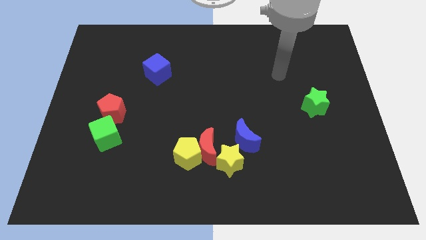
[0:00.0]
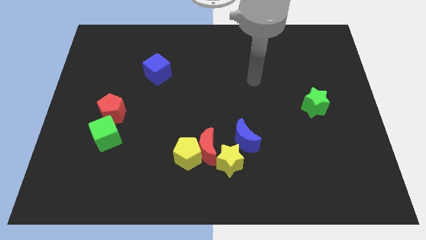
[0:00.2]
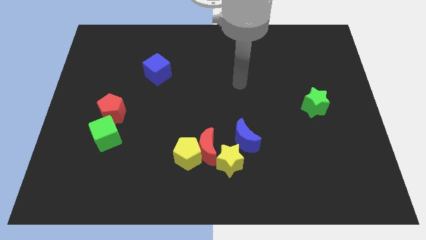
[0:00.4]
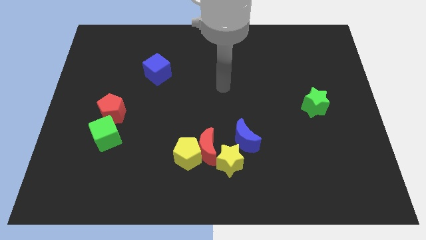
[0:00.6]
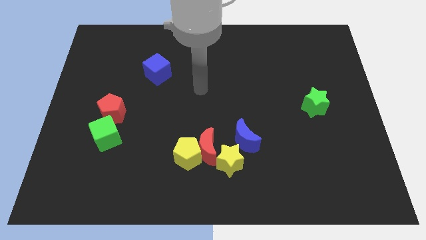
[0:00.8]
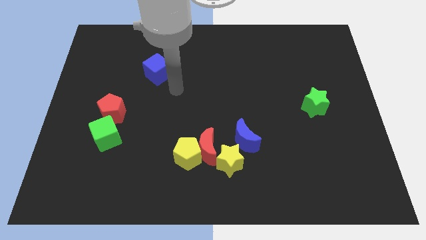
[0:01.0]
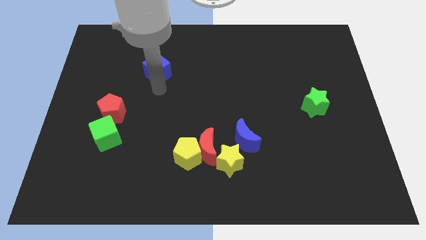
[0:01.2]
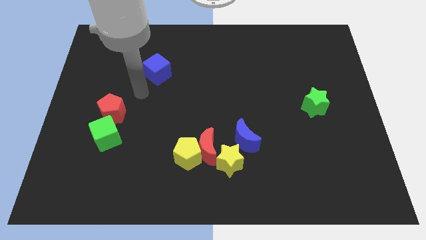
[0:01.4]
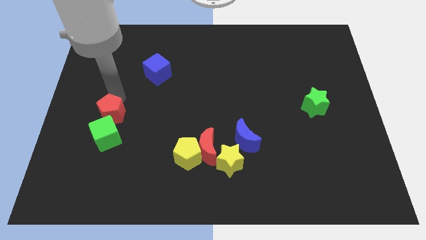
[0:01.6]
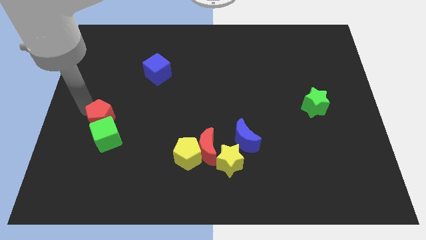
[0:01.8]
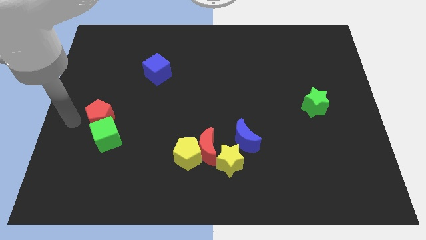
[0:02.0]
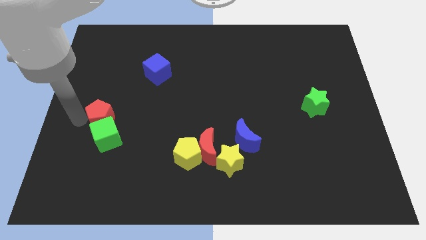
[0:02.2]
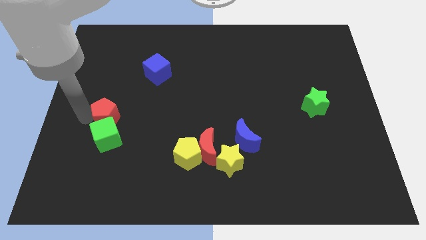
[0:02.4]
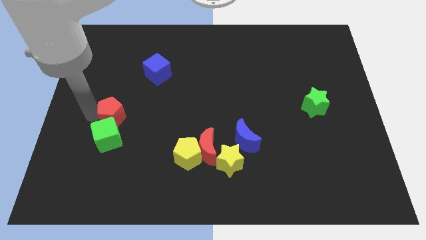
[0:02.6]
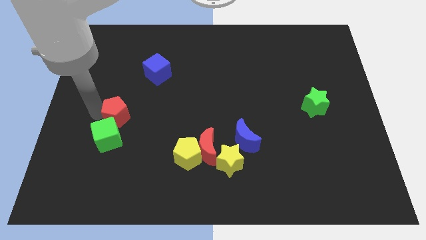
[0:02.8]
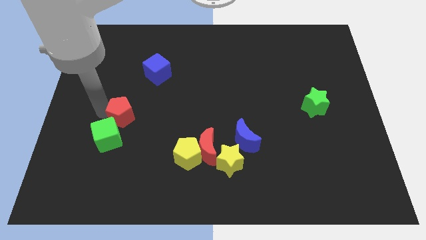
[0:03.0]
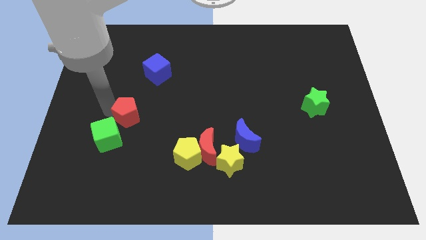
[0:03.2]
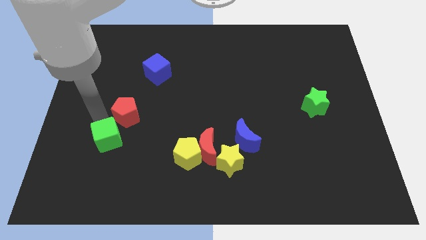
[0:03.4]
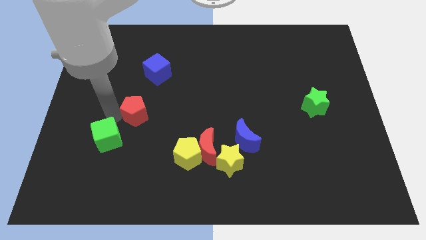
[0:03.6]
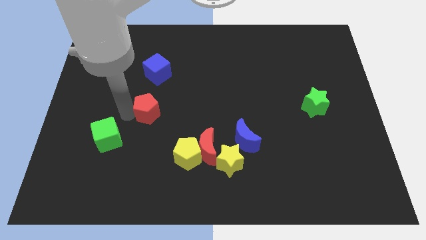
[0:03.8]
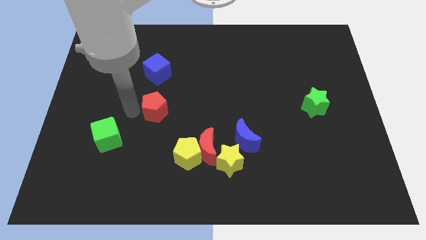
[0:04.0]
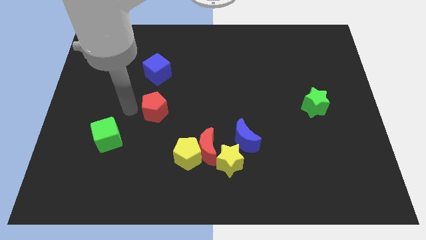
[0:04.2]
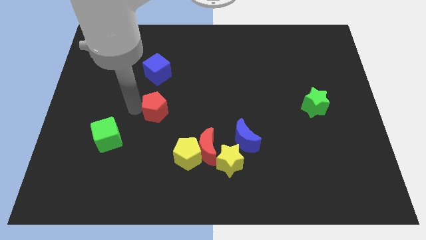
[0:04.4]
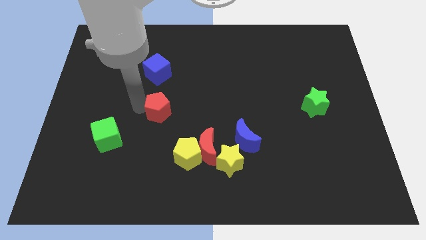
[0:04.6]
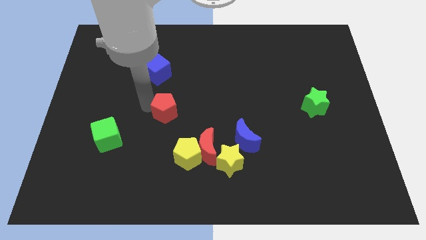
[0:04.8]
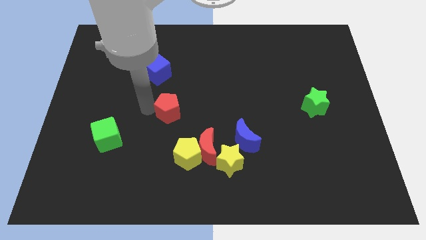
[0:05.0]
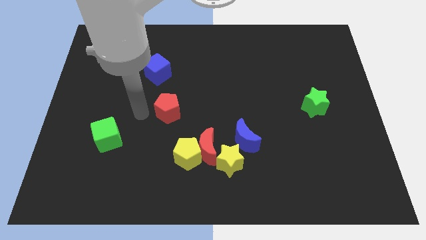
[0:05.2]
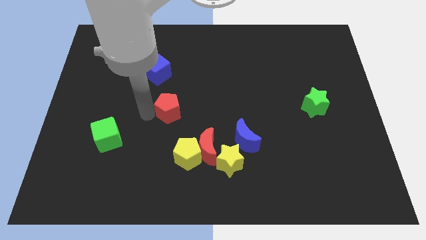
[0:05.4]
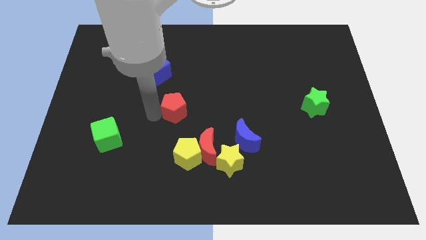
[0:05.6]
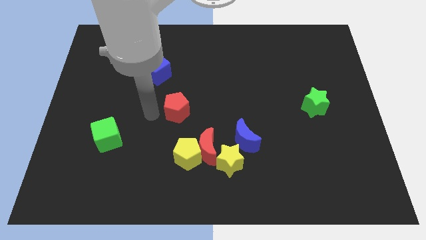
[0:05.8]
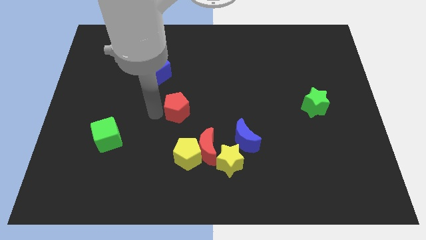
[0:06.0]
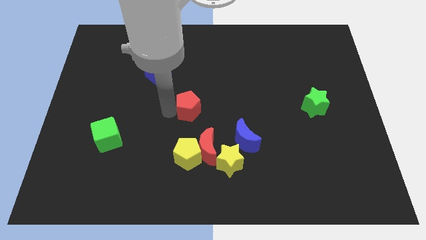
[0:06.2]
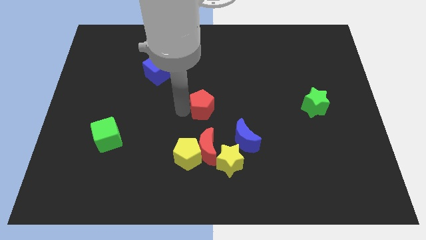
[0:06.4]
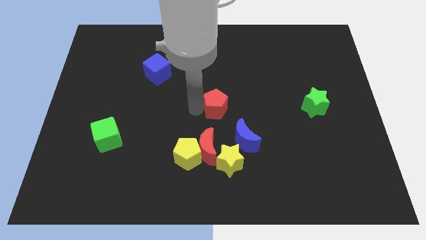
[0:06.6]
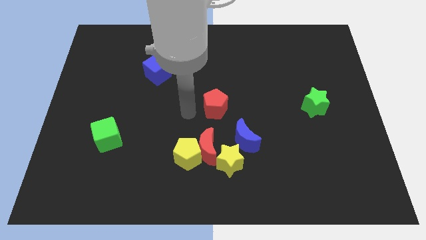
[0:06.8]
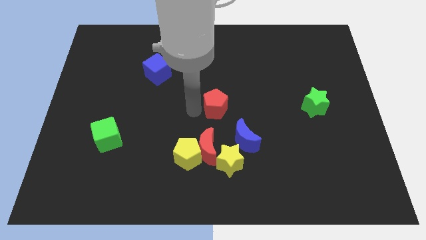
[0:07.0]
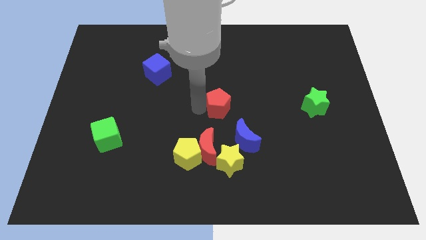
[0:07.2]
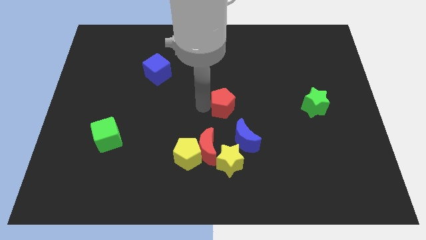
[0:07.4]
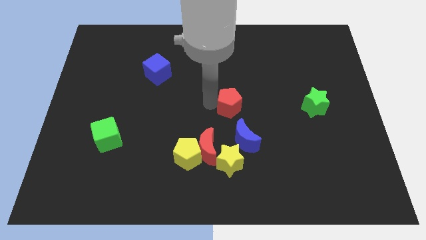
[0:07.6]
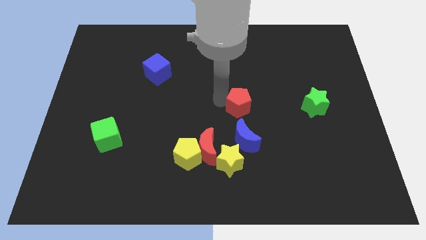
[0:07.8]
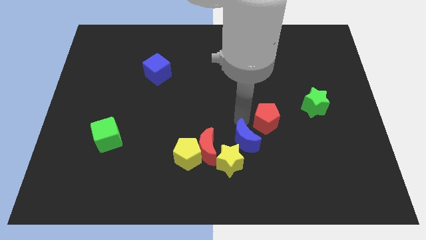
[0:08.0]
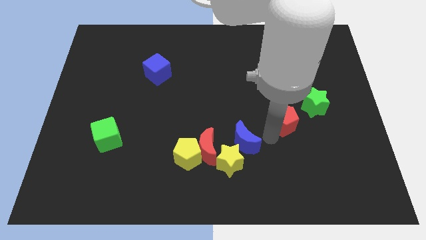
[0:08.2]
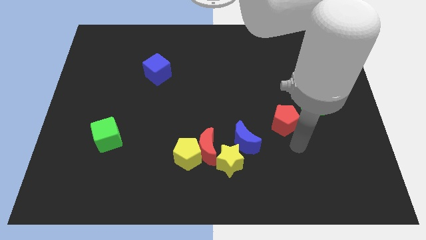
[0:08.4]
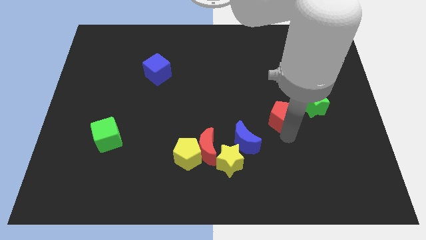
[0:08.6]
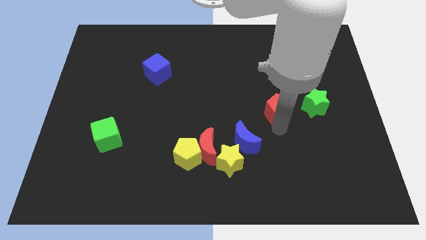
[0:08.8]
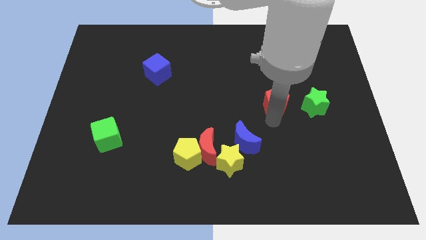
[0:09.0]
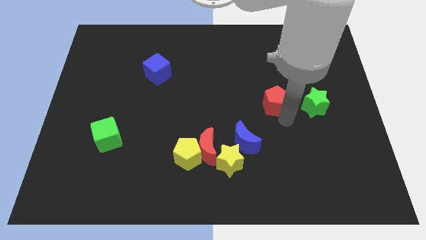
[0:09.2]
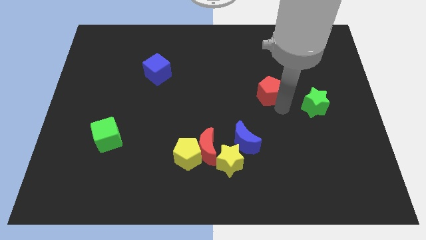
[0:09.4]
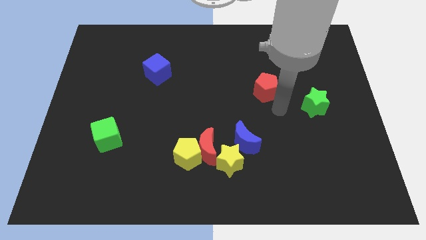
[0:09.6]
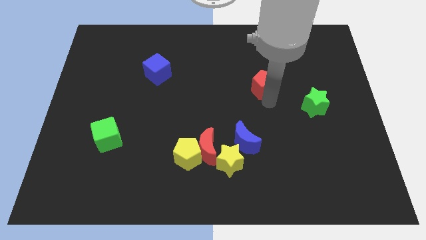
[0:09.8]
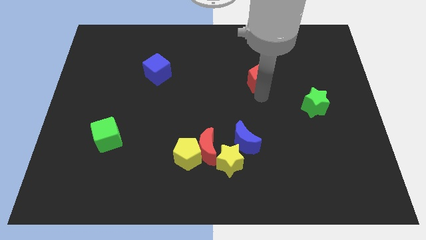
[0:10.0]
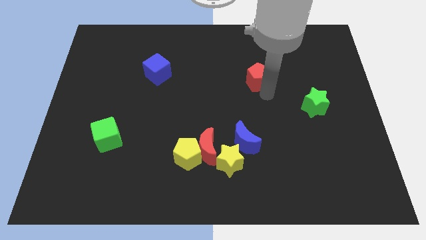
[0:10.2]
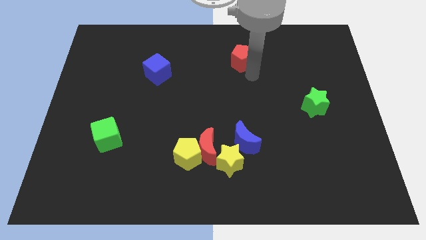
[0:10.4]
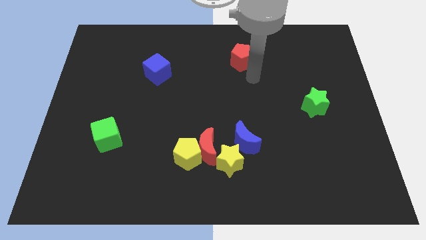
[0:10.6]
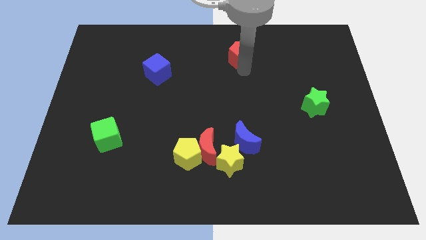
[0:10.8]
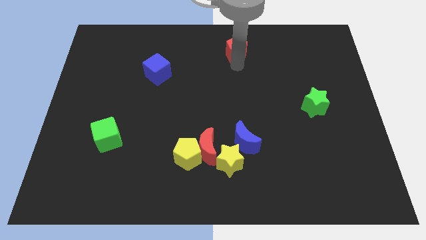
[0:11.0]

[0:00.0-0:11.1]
slide the red pentagon to the top

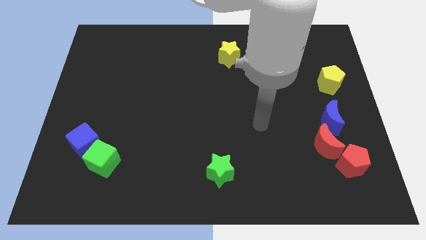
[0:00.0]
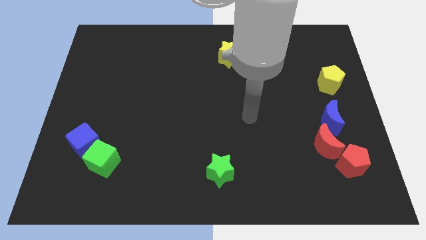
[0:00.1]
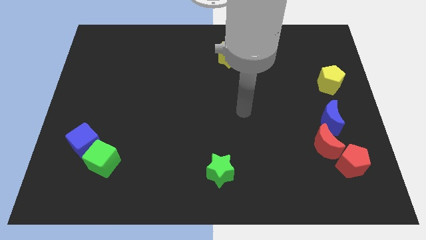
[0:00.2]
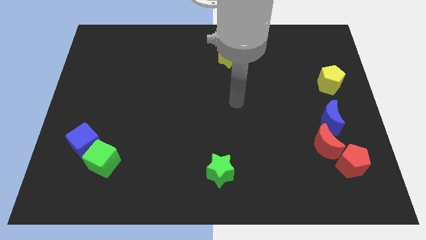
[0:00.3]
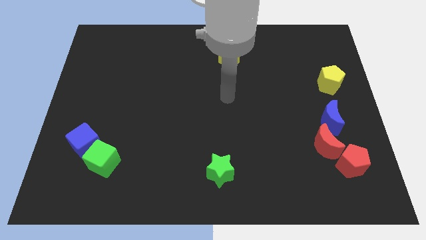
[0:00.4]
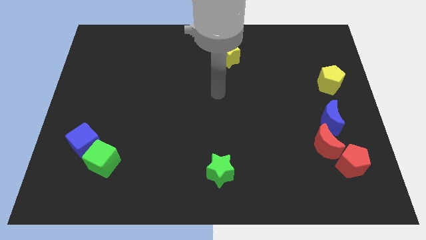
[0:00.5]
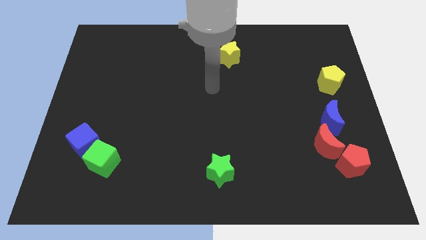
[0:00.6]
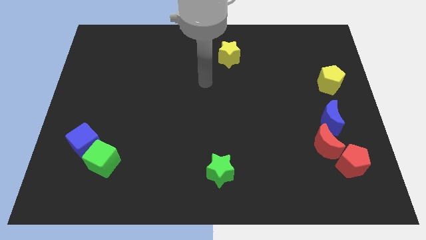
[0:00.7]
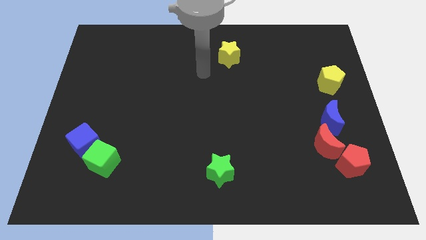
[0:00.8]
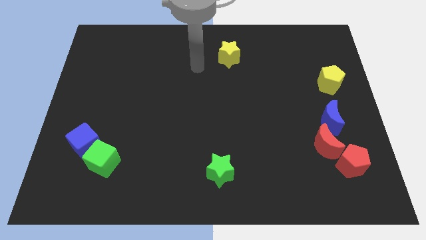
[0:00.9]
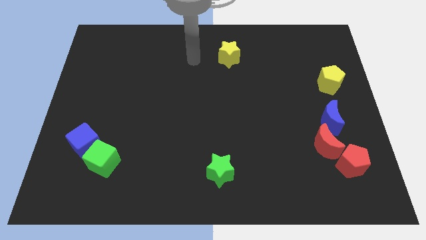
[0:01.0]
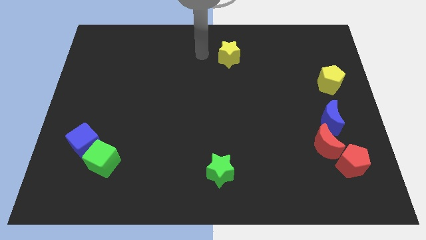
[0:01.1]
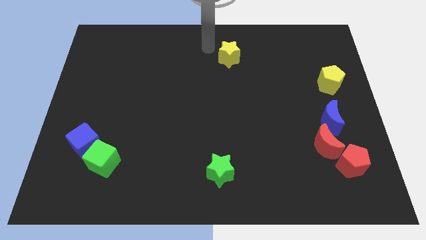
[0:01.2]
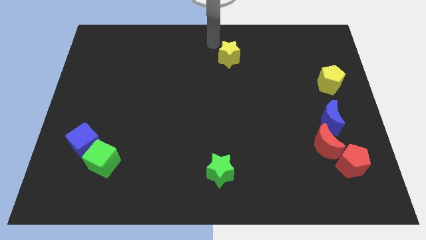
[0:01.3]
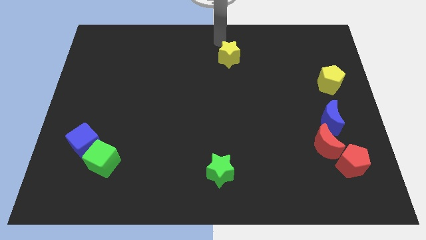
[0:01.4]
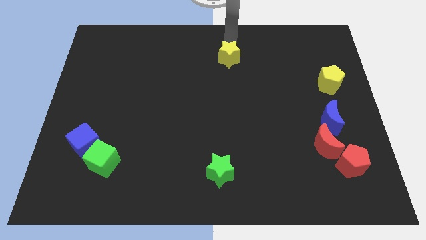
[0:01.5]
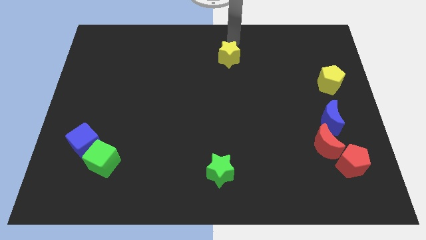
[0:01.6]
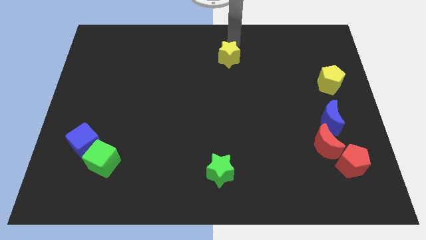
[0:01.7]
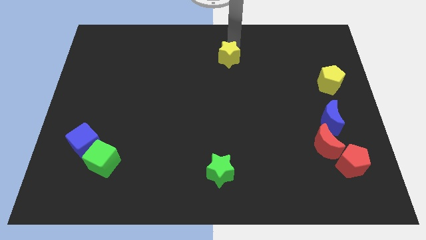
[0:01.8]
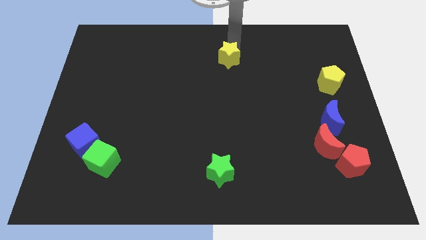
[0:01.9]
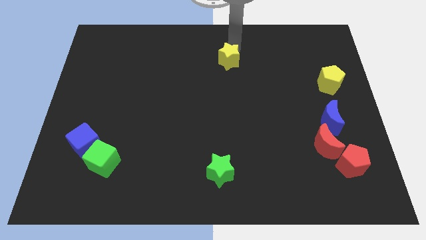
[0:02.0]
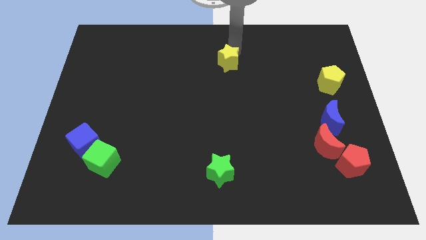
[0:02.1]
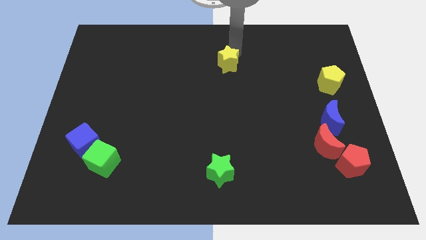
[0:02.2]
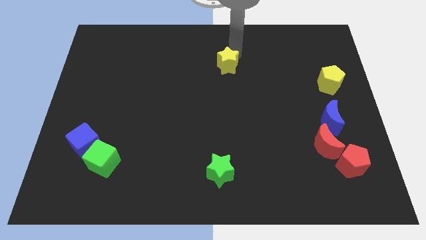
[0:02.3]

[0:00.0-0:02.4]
move the yellow star to the middle of the board
